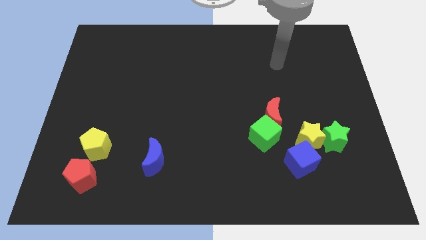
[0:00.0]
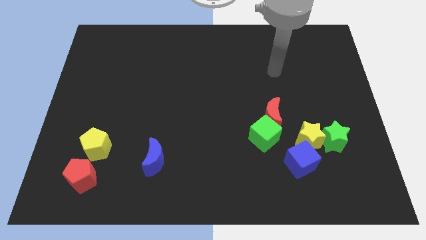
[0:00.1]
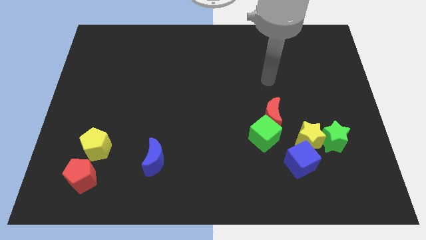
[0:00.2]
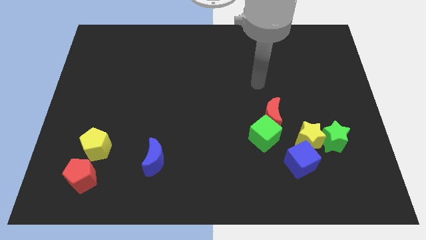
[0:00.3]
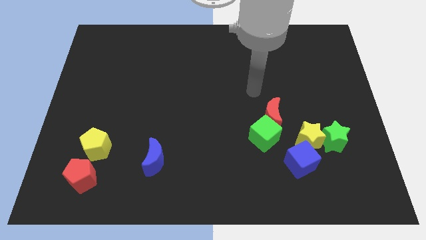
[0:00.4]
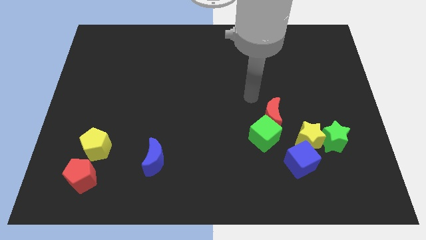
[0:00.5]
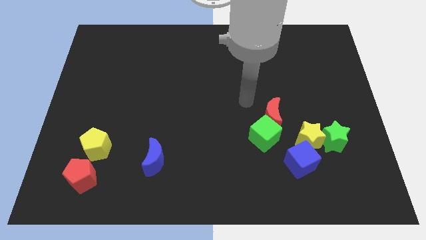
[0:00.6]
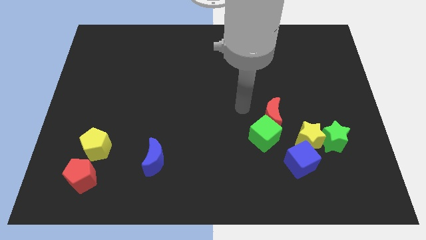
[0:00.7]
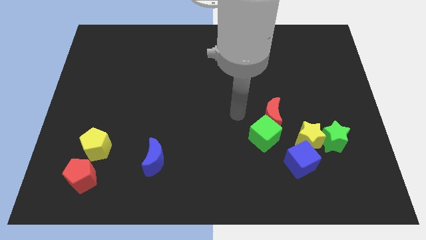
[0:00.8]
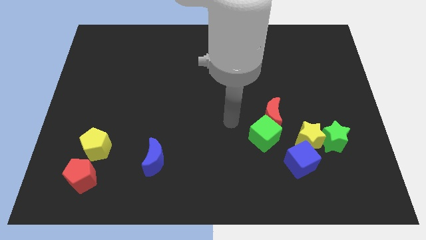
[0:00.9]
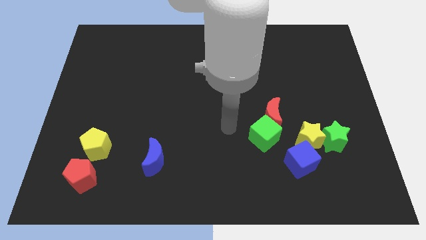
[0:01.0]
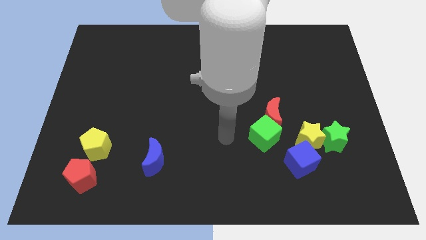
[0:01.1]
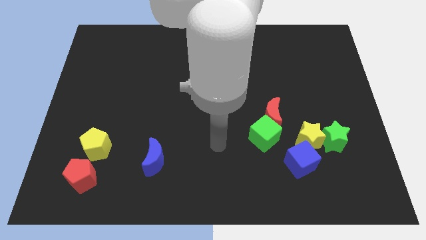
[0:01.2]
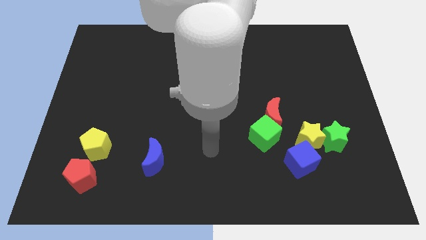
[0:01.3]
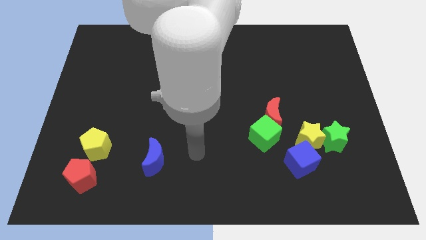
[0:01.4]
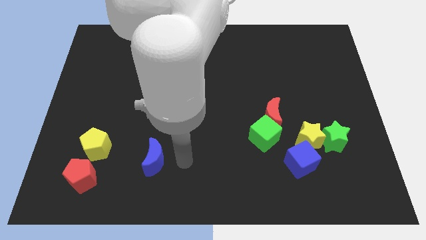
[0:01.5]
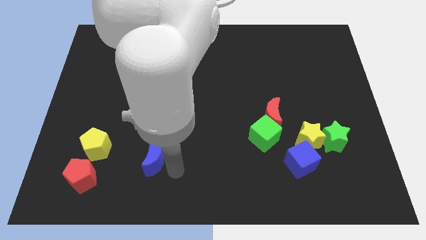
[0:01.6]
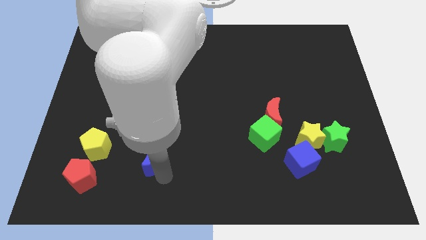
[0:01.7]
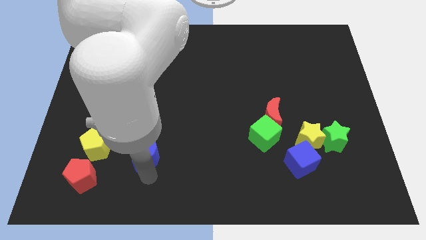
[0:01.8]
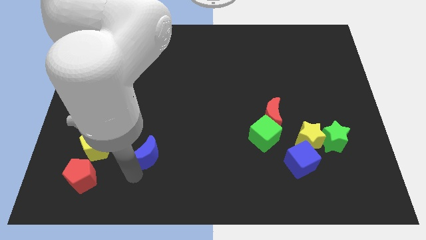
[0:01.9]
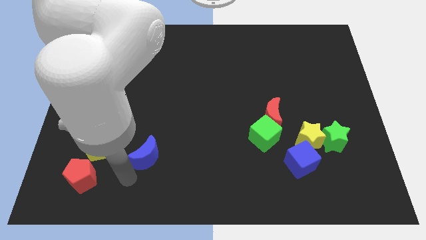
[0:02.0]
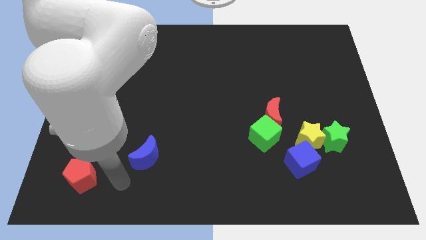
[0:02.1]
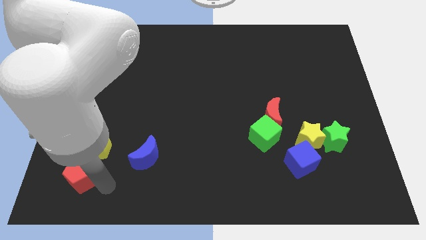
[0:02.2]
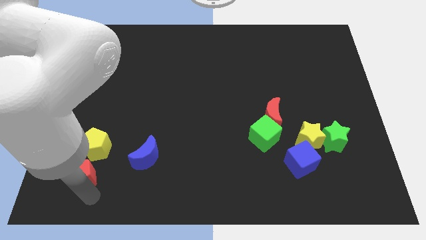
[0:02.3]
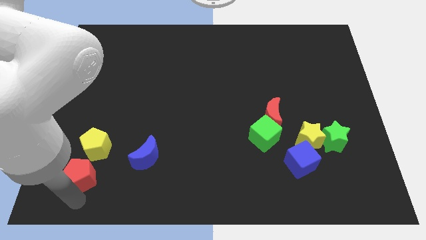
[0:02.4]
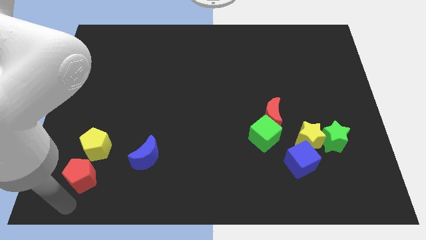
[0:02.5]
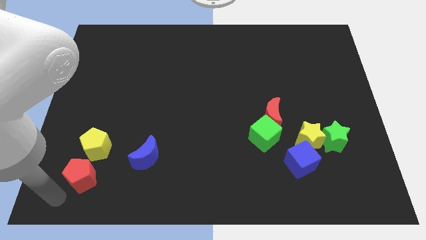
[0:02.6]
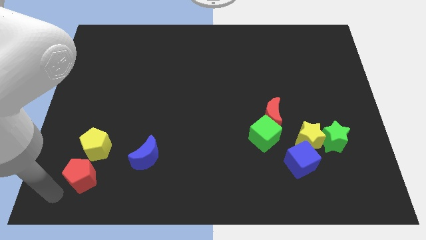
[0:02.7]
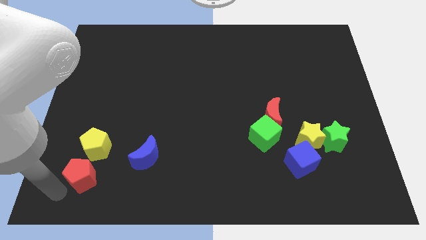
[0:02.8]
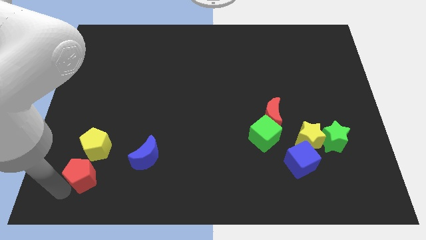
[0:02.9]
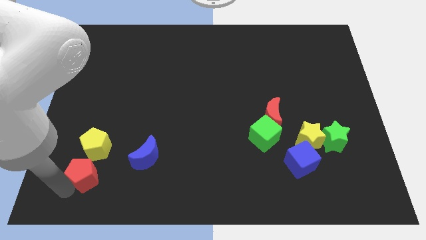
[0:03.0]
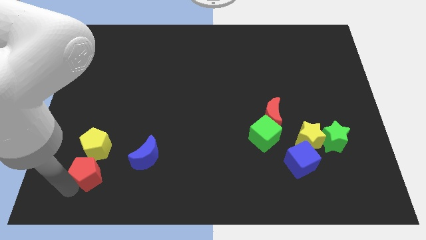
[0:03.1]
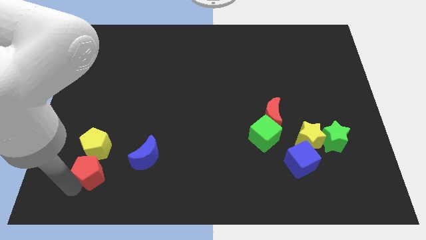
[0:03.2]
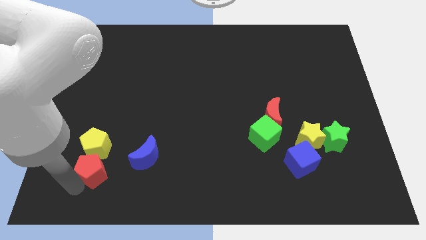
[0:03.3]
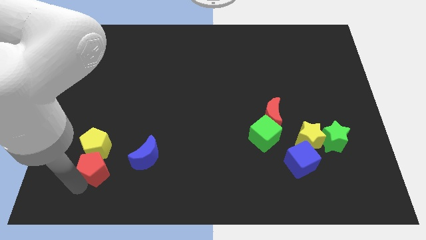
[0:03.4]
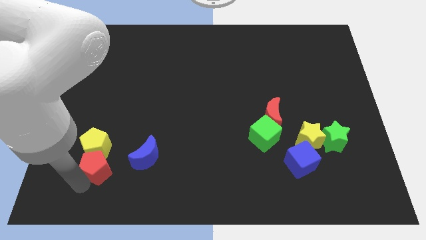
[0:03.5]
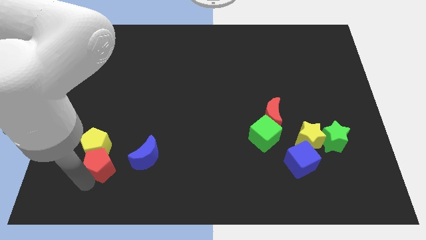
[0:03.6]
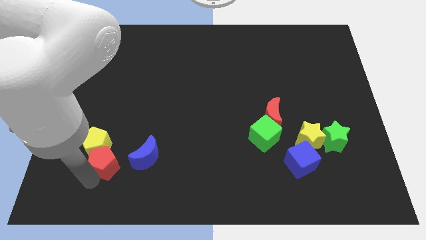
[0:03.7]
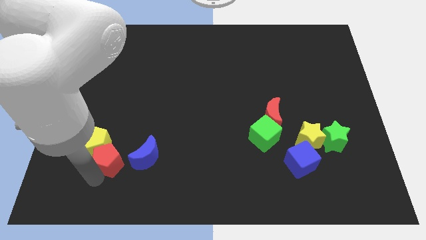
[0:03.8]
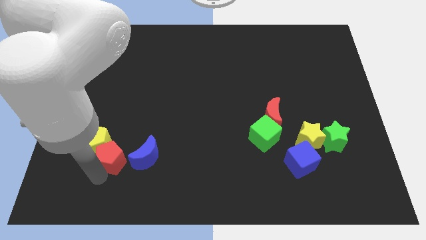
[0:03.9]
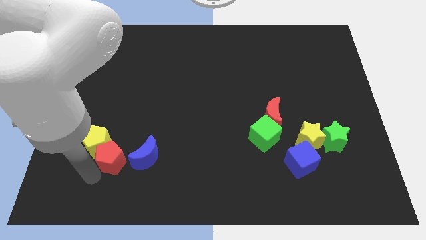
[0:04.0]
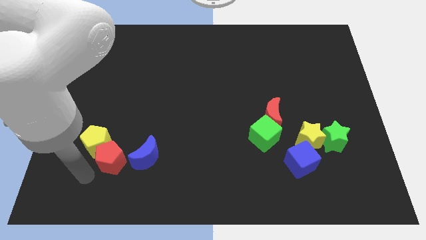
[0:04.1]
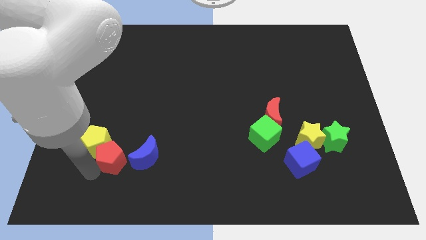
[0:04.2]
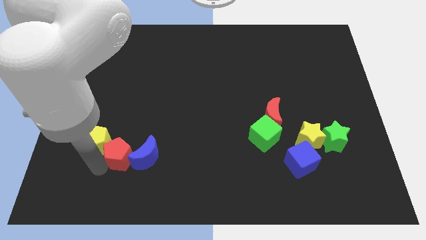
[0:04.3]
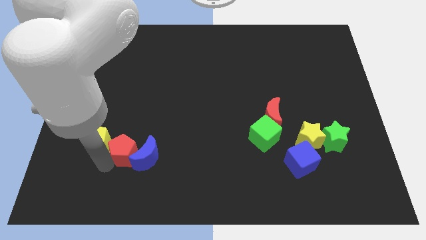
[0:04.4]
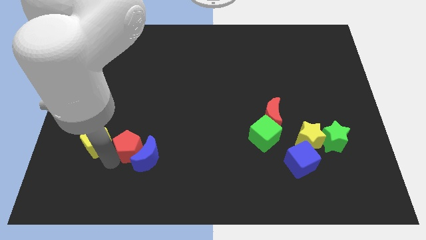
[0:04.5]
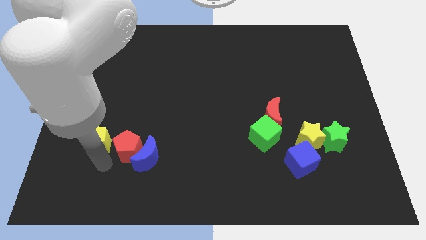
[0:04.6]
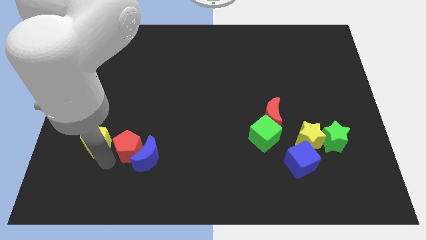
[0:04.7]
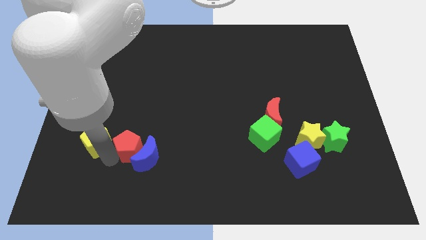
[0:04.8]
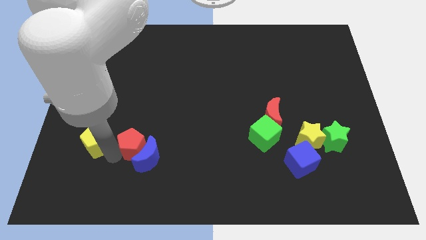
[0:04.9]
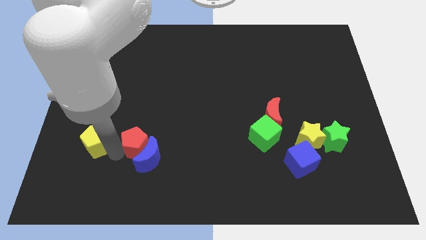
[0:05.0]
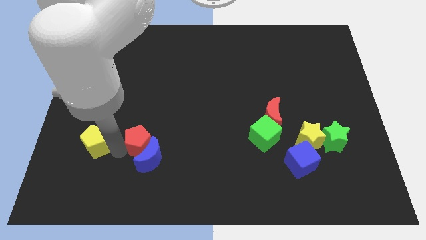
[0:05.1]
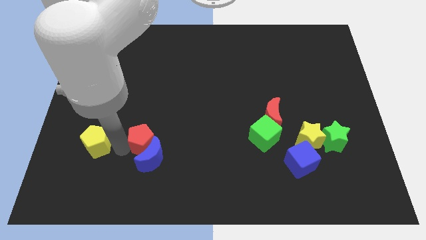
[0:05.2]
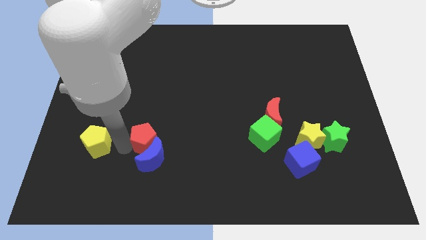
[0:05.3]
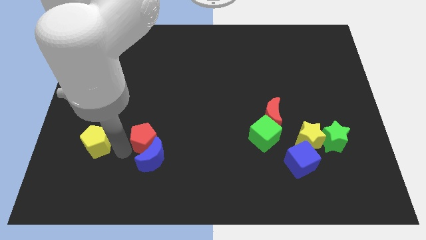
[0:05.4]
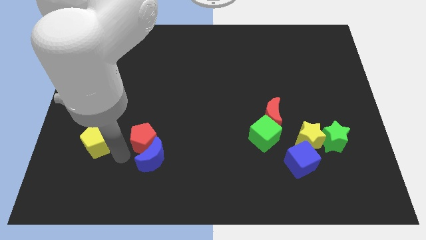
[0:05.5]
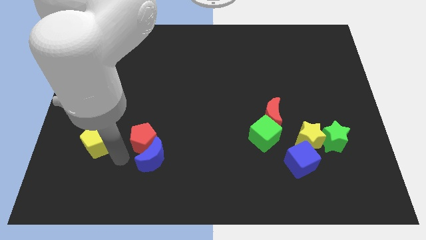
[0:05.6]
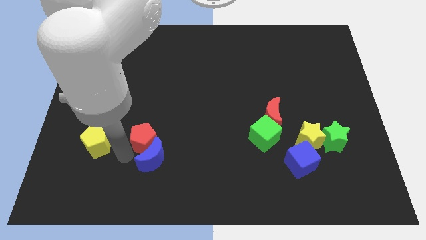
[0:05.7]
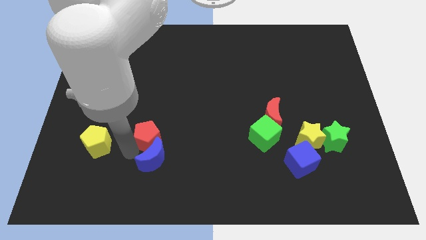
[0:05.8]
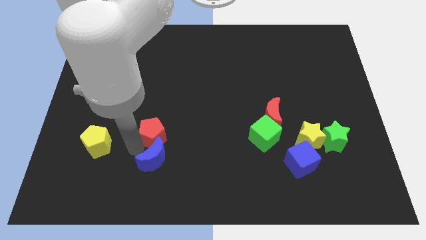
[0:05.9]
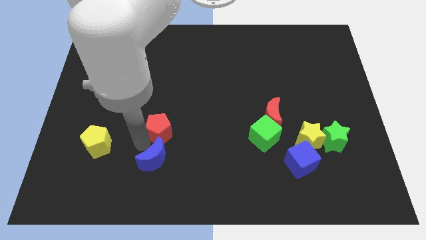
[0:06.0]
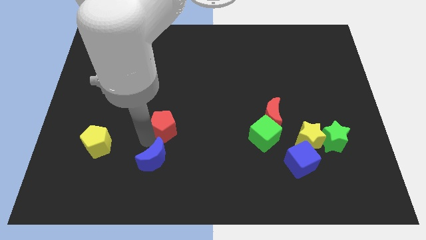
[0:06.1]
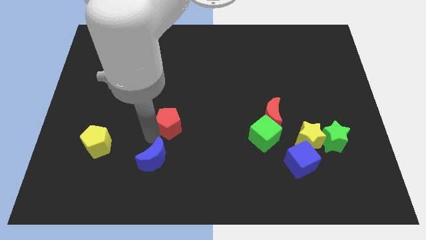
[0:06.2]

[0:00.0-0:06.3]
put the red pentagon to the center of the board

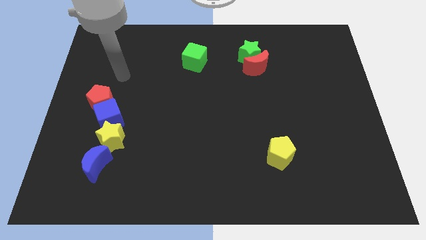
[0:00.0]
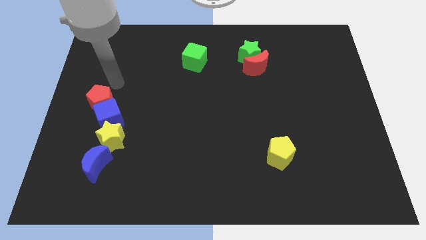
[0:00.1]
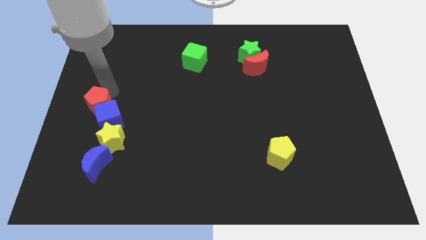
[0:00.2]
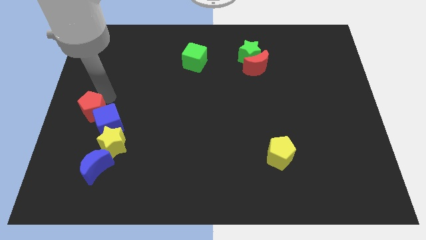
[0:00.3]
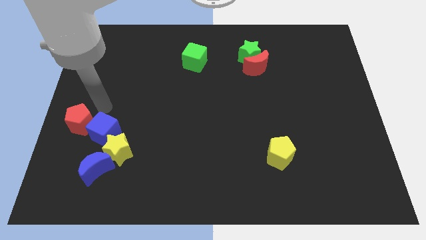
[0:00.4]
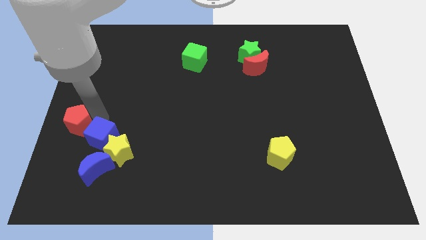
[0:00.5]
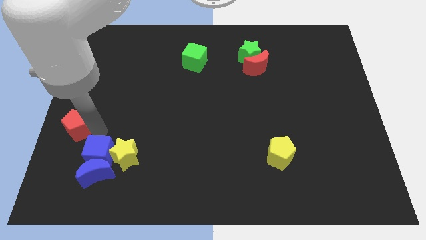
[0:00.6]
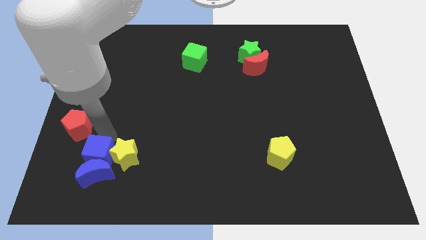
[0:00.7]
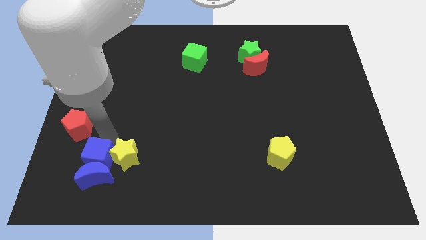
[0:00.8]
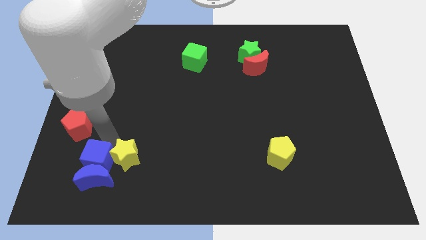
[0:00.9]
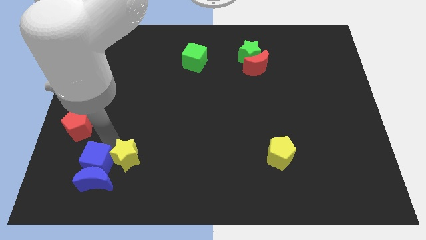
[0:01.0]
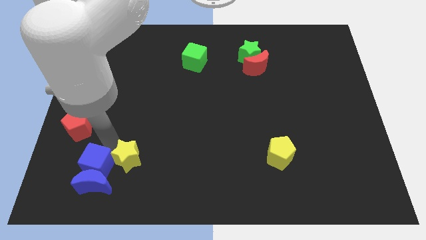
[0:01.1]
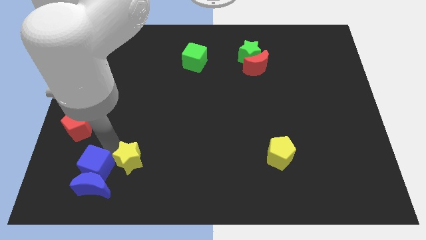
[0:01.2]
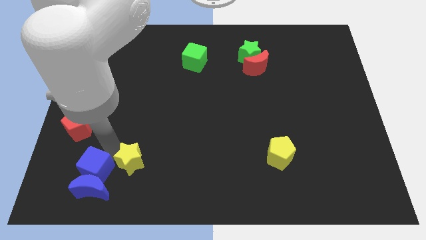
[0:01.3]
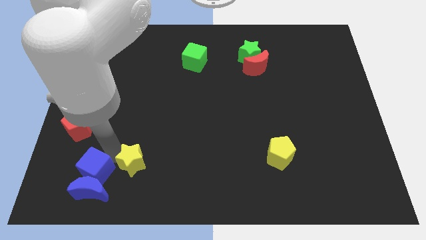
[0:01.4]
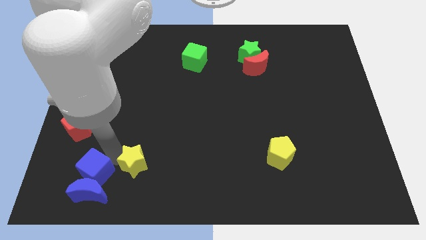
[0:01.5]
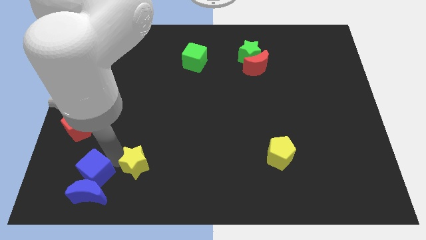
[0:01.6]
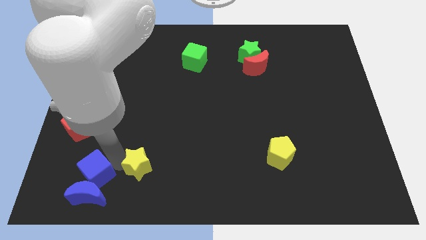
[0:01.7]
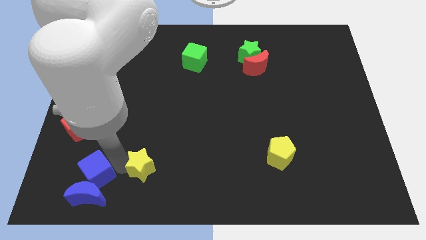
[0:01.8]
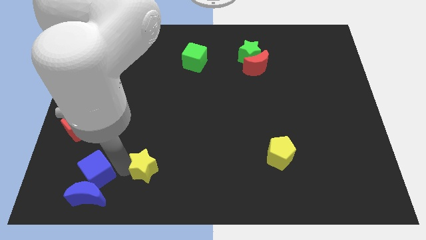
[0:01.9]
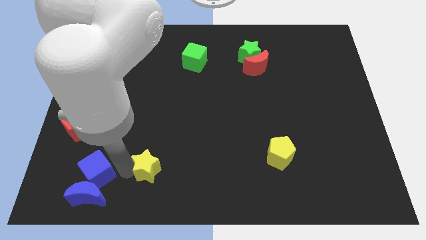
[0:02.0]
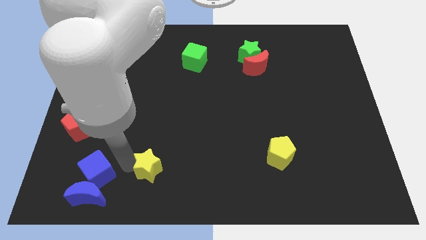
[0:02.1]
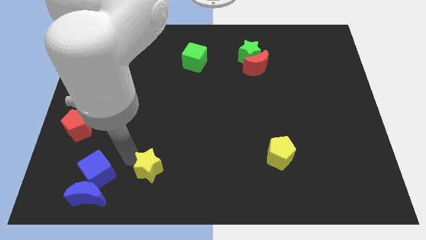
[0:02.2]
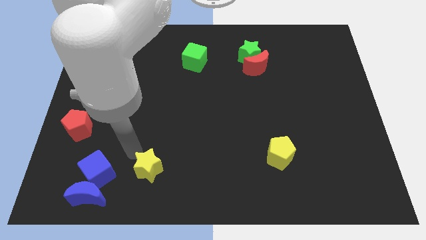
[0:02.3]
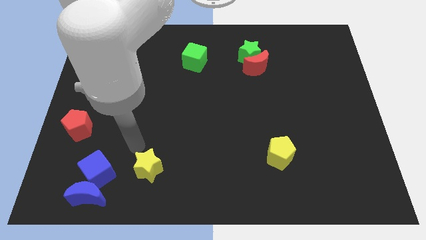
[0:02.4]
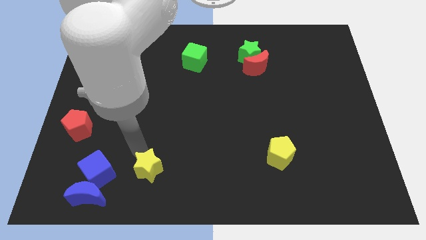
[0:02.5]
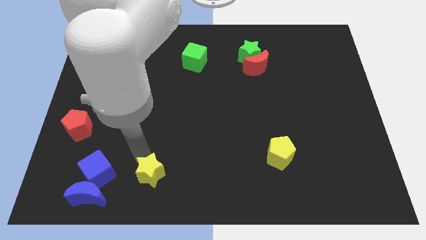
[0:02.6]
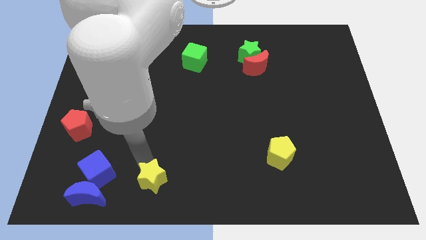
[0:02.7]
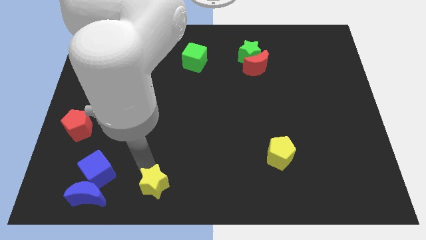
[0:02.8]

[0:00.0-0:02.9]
move the yellow star to the bottom
